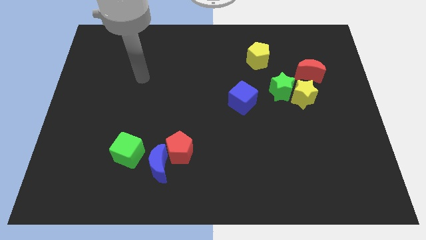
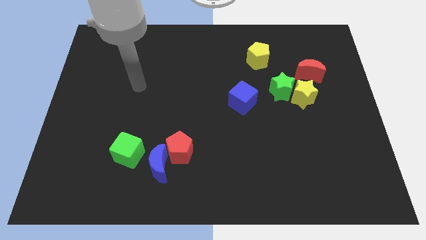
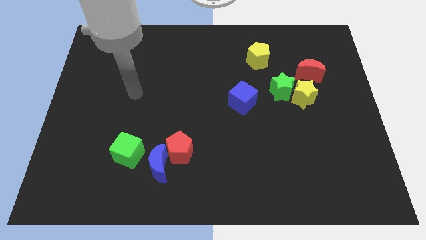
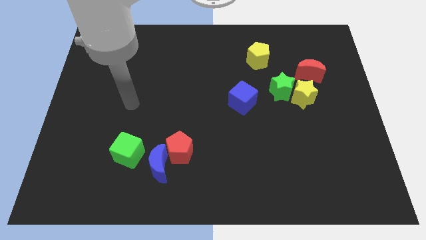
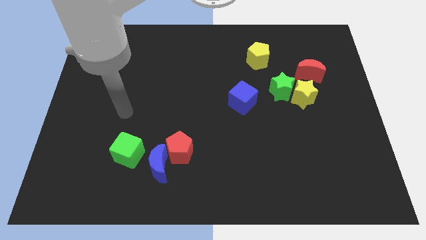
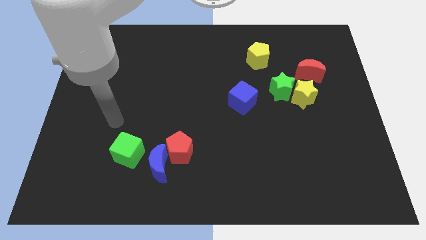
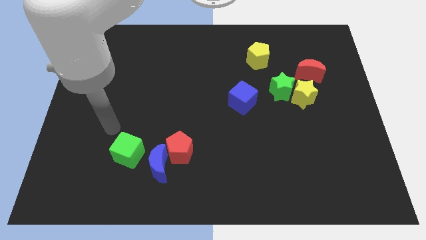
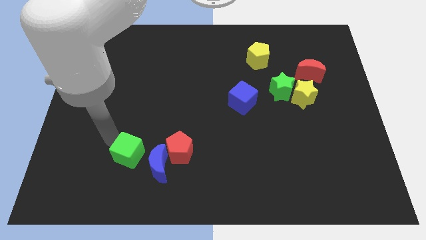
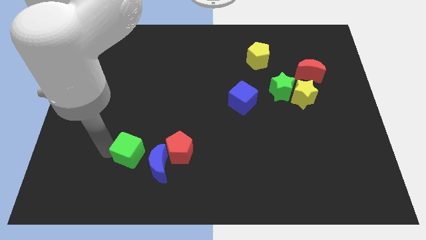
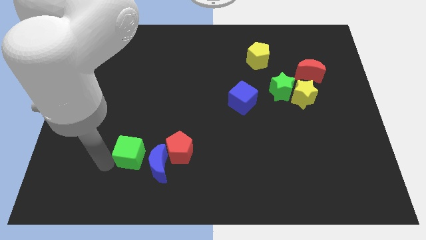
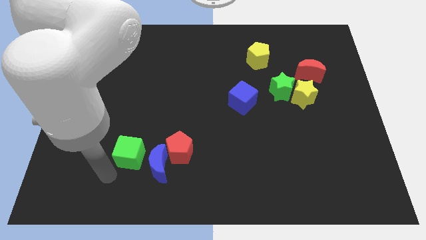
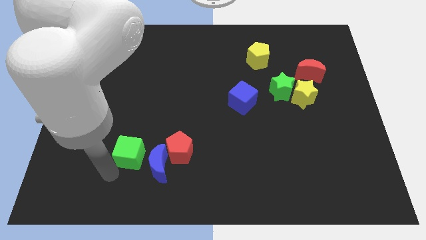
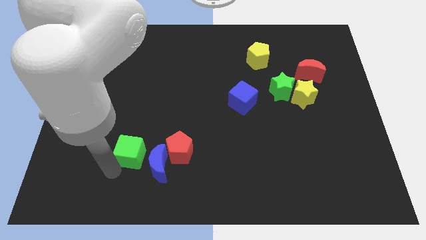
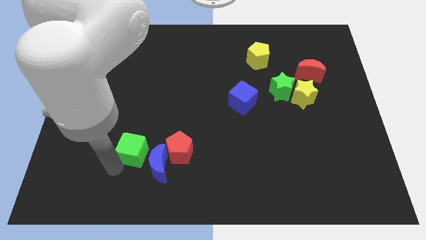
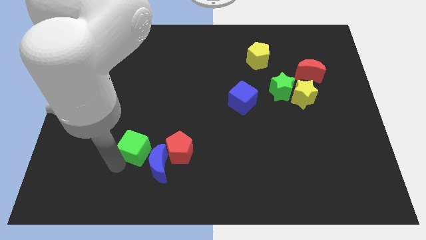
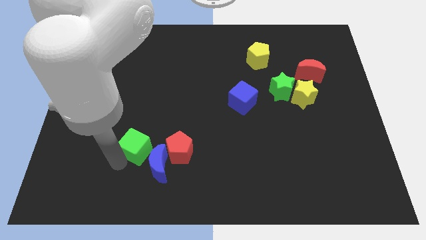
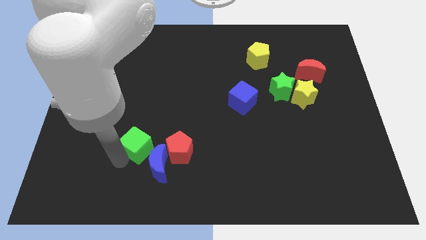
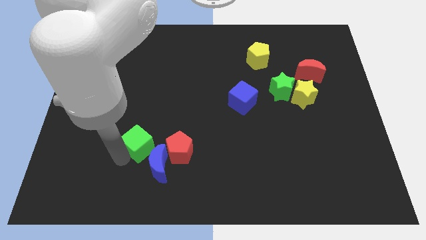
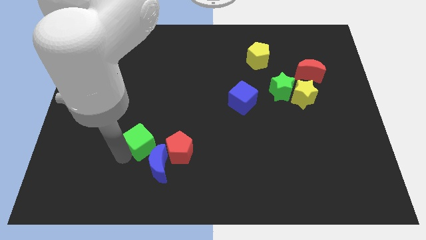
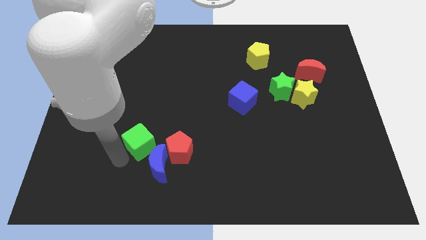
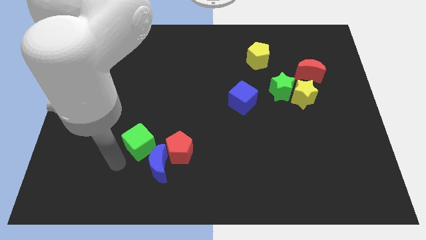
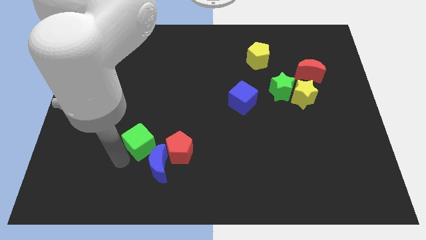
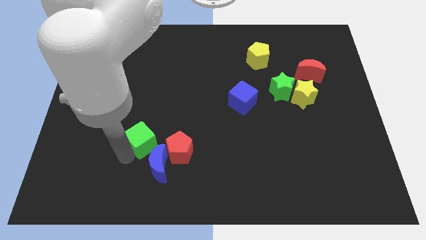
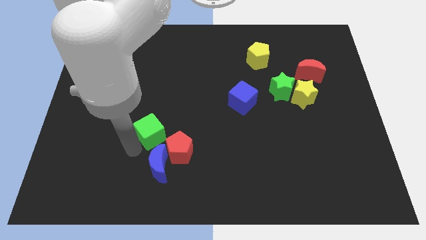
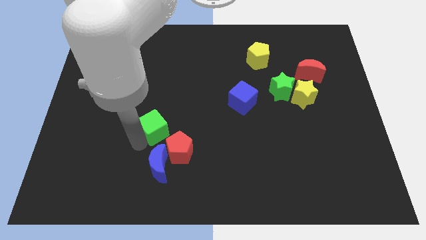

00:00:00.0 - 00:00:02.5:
slide the green cube up and right diagonally a little bit

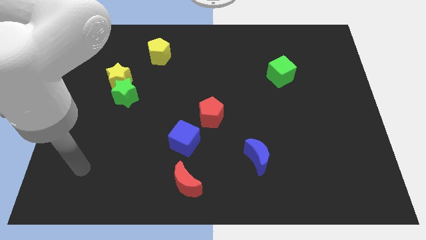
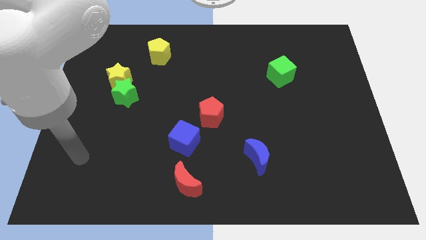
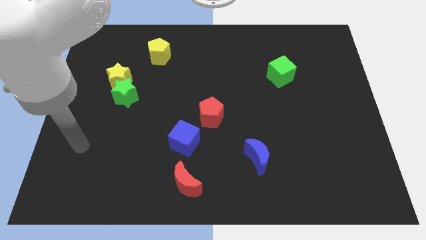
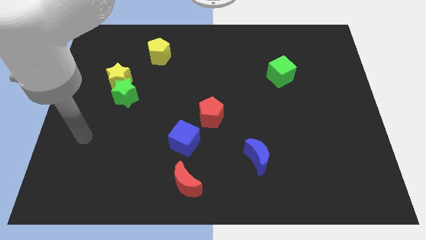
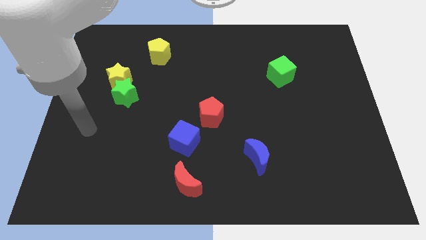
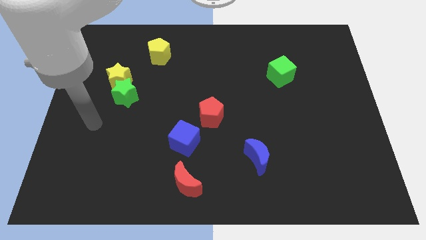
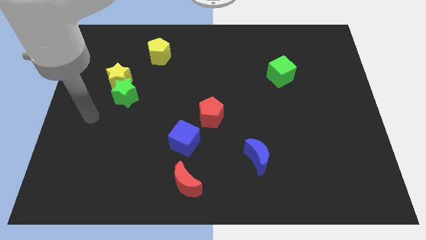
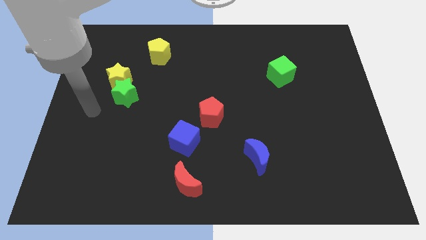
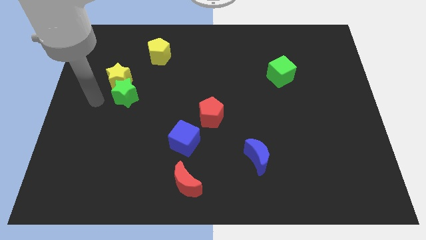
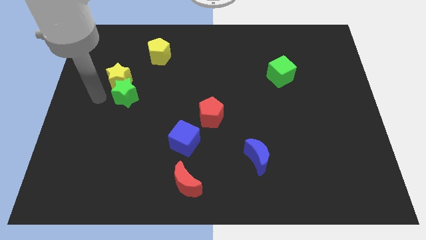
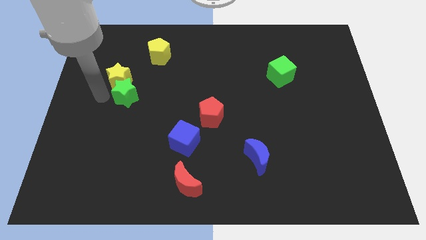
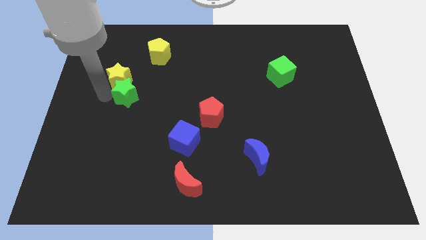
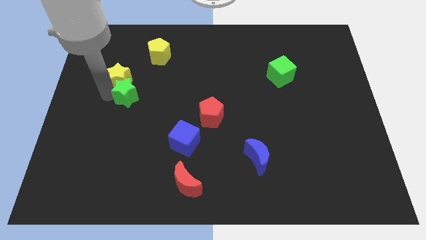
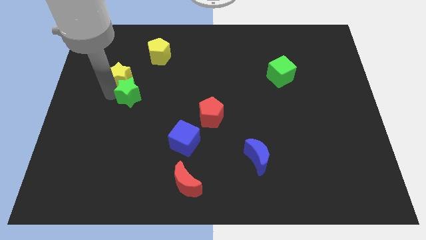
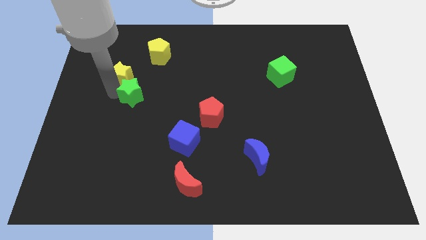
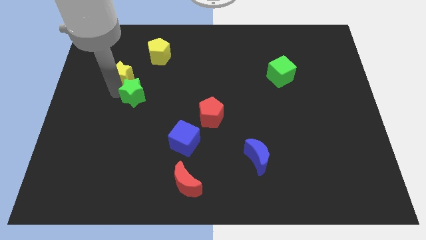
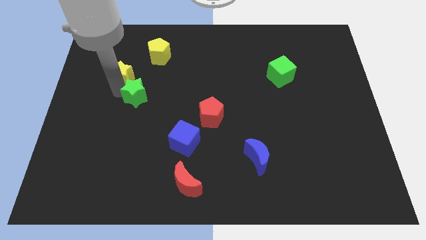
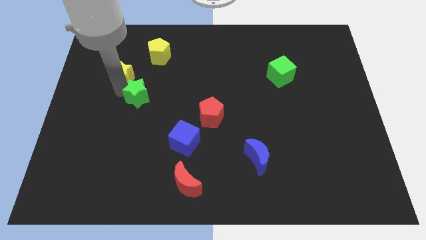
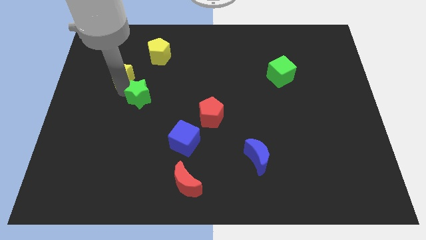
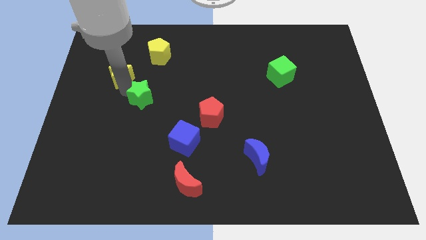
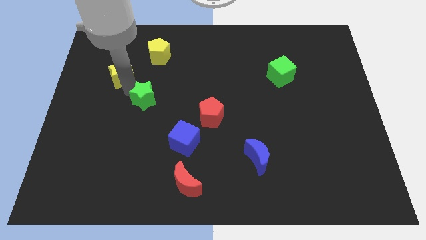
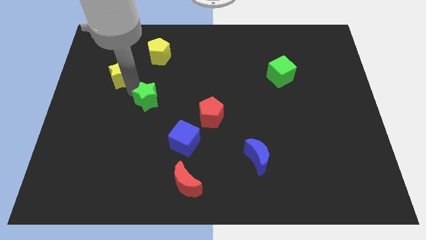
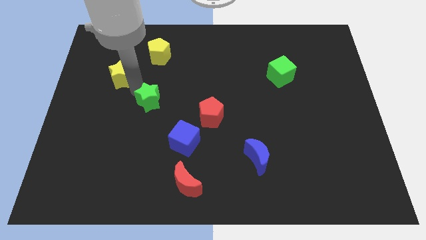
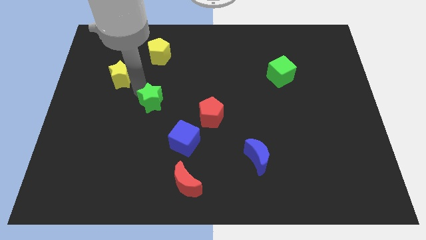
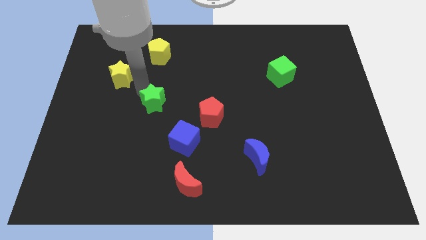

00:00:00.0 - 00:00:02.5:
push the green star right a little

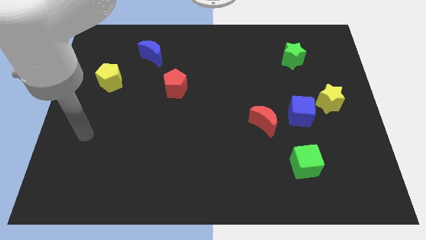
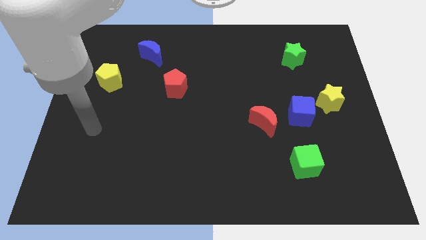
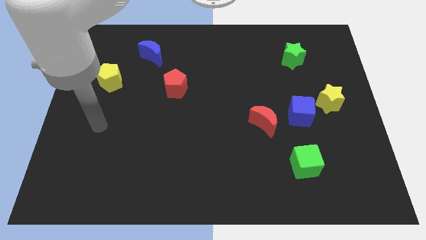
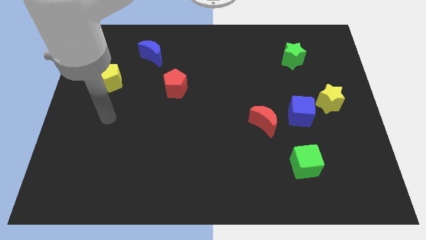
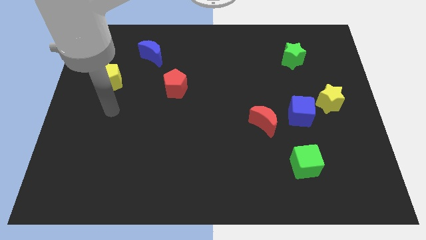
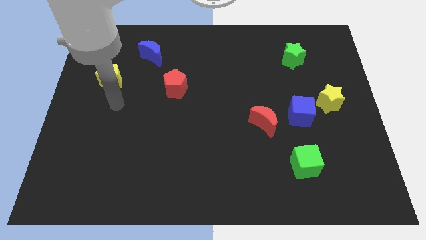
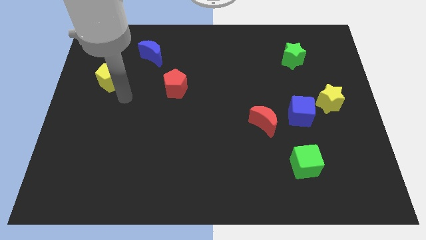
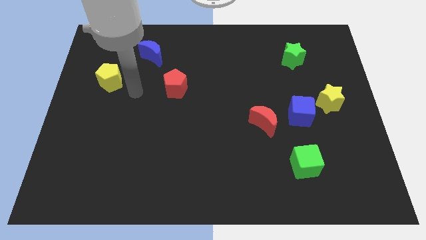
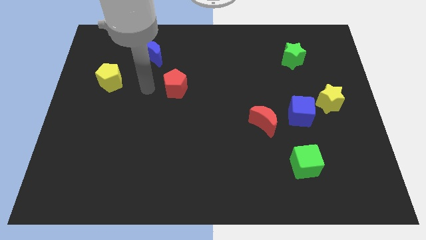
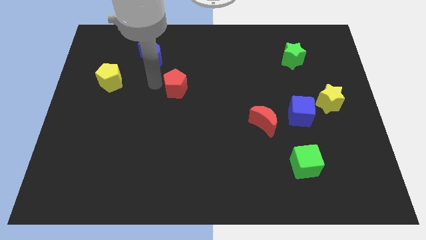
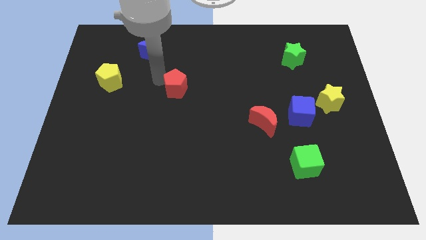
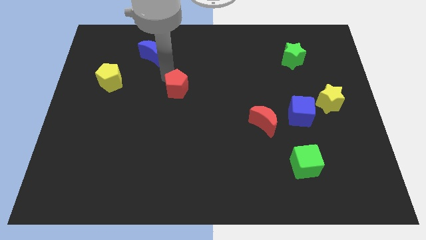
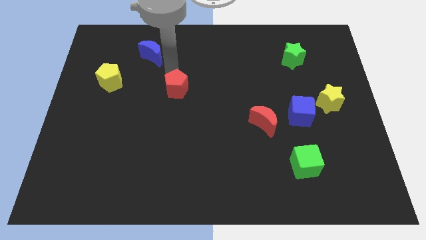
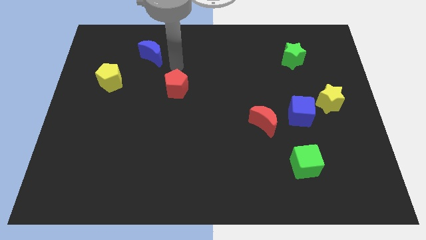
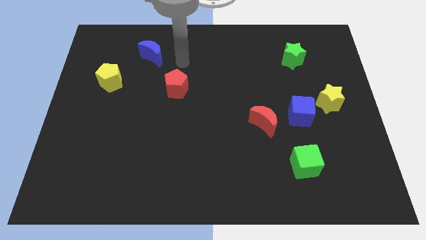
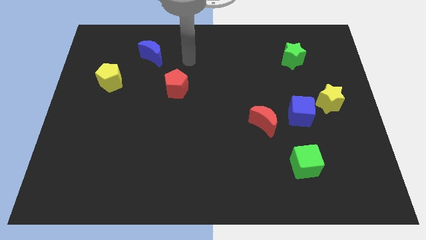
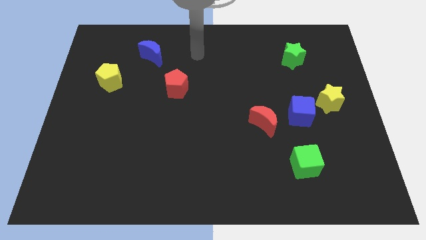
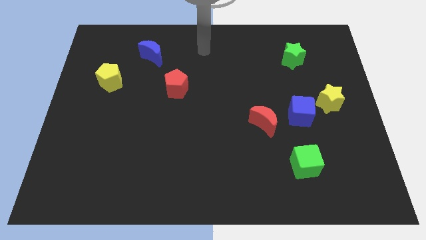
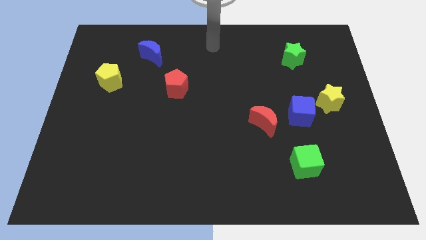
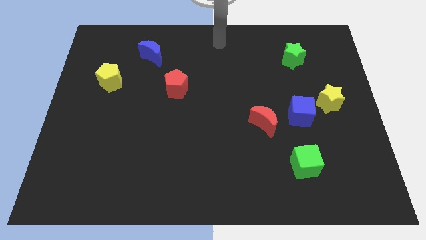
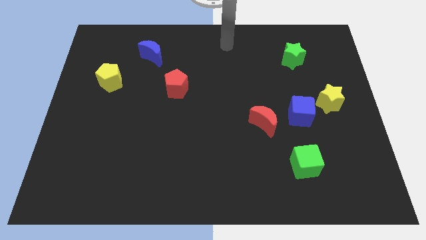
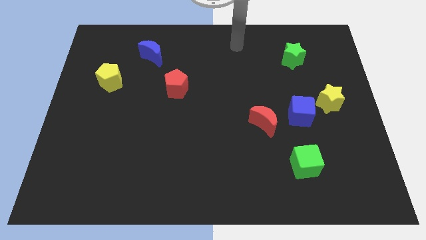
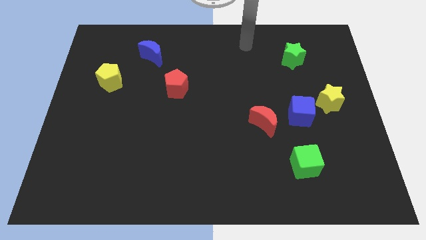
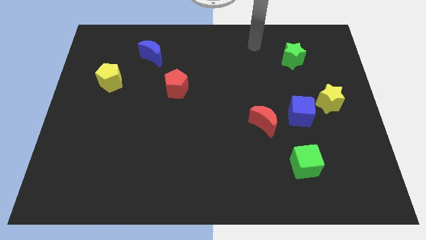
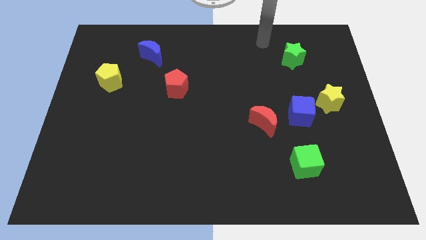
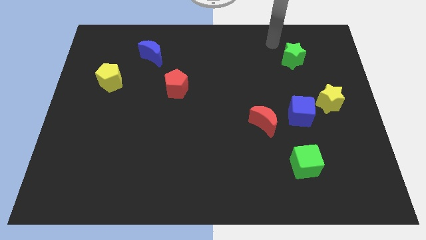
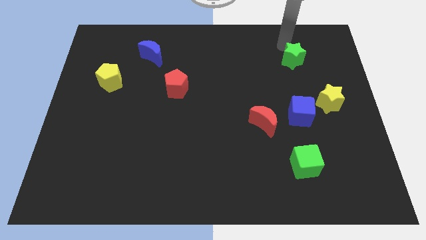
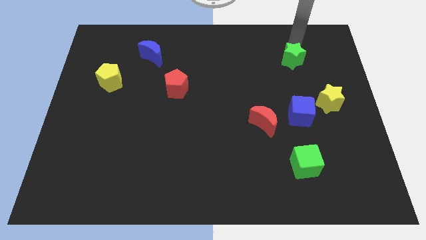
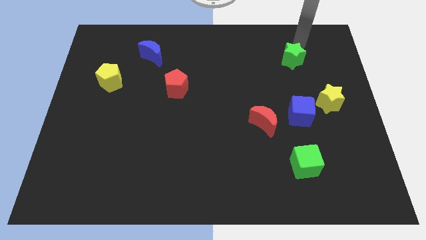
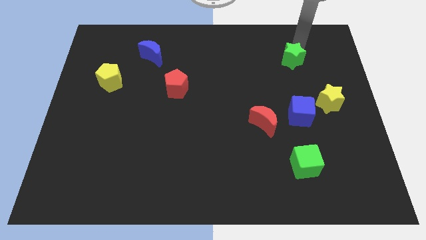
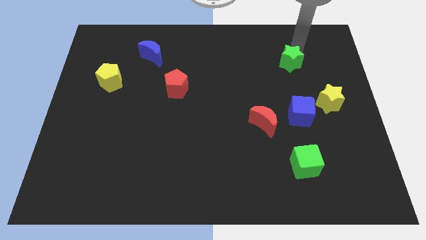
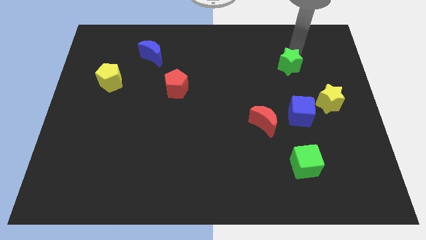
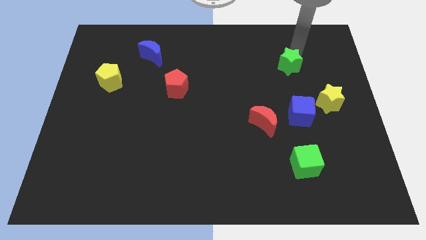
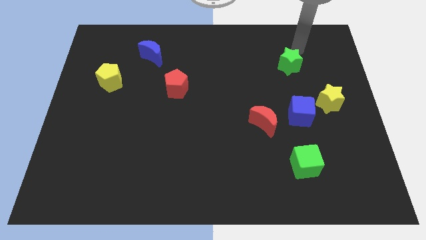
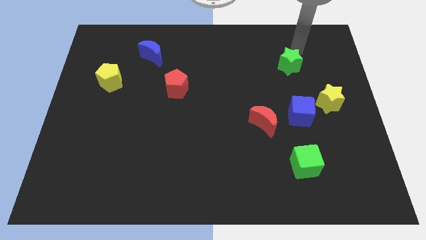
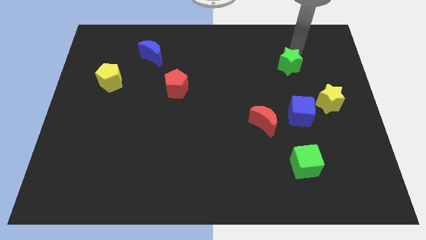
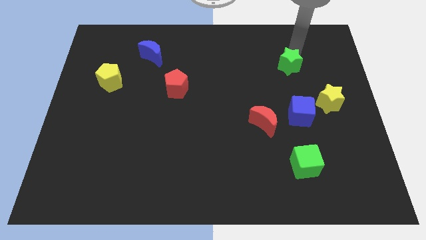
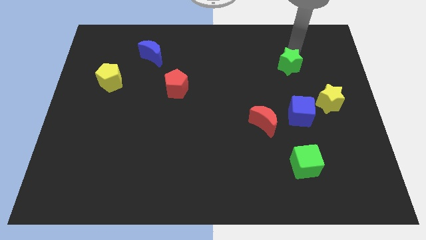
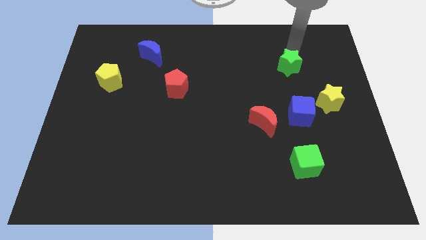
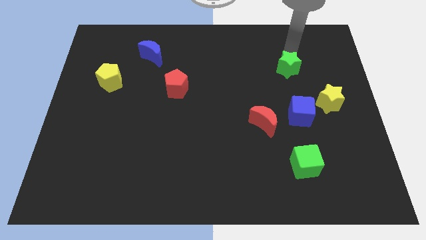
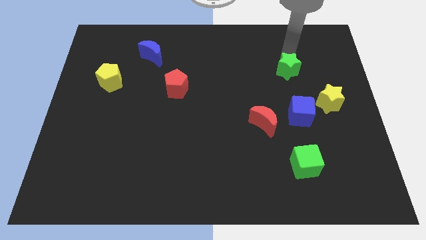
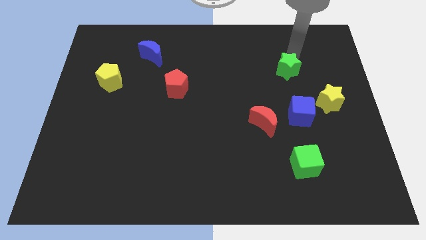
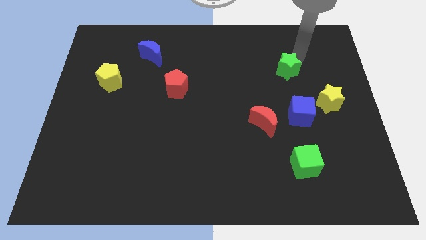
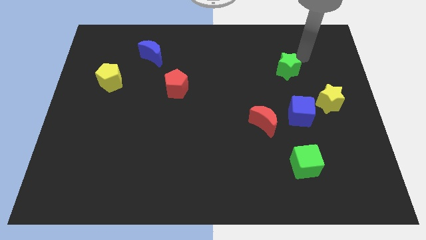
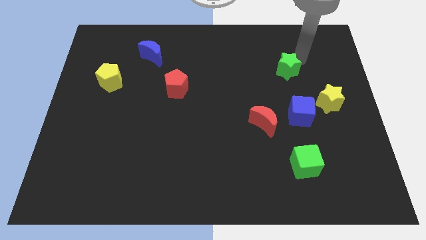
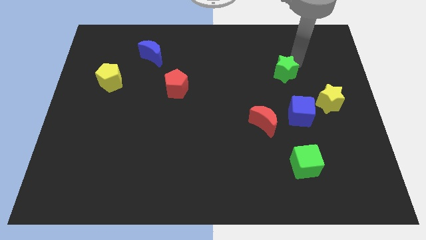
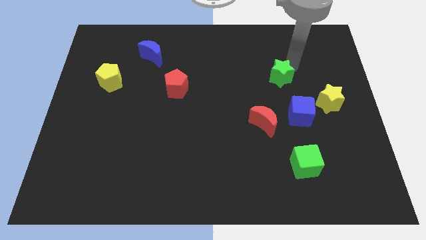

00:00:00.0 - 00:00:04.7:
slide the green star a little downwards and to the left diagonally
